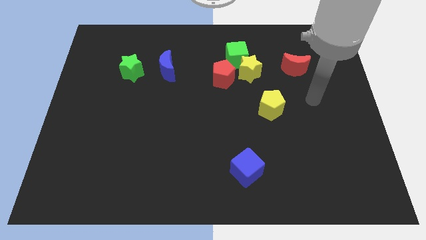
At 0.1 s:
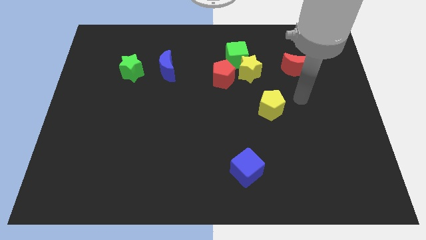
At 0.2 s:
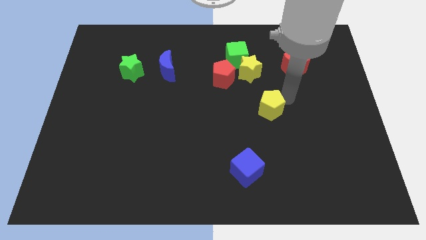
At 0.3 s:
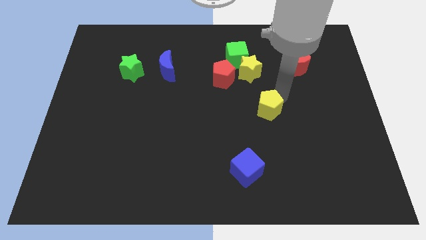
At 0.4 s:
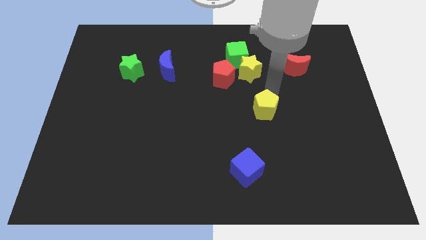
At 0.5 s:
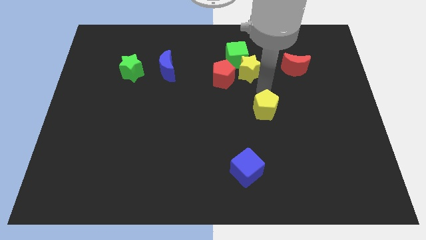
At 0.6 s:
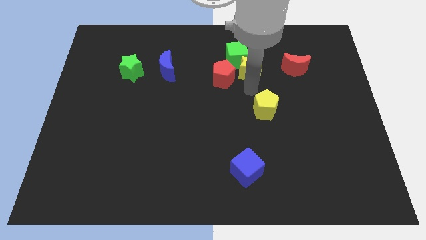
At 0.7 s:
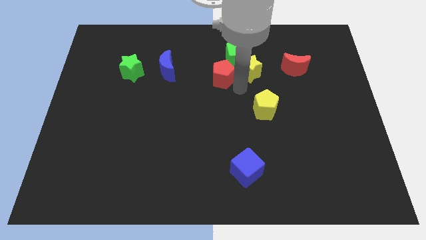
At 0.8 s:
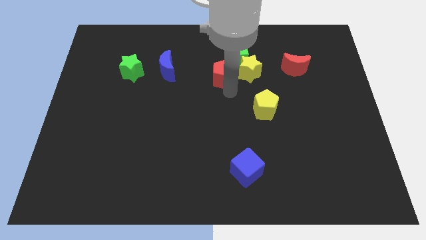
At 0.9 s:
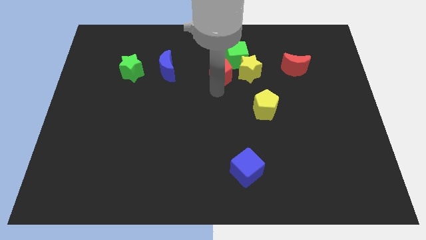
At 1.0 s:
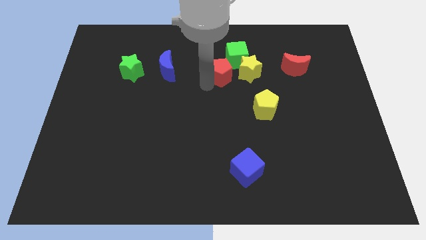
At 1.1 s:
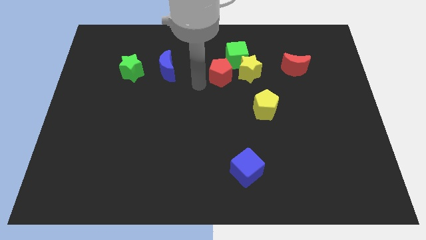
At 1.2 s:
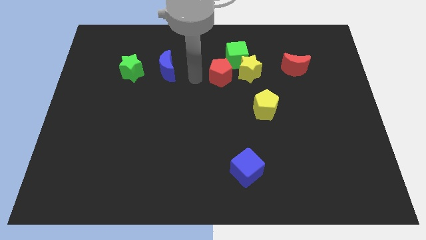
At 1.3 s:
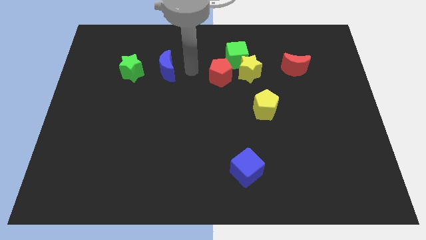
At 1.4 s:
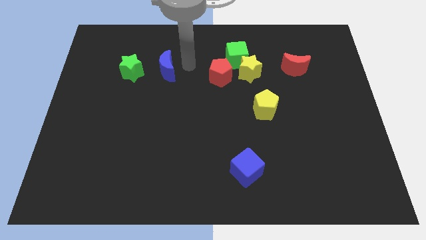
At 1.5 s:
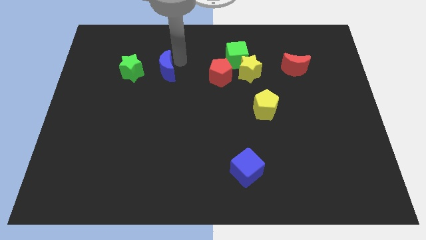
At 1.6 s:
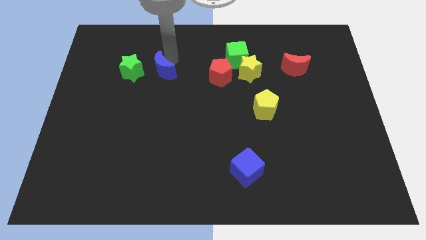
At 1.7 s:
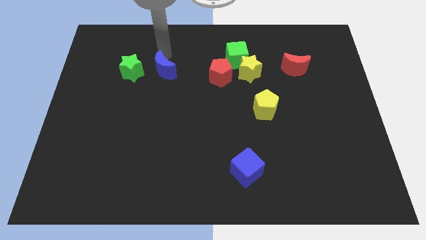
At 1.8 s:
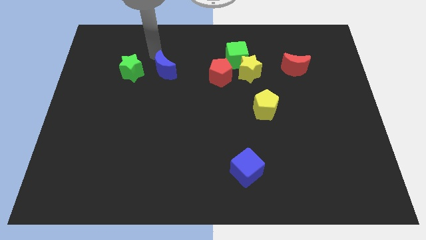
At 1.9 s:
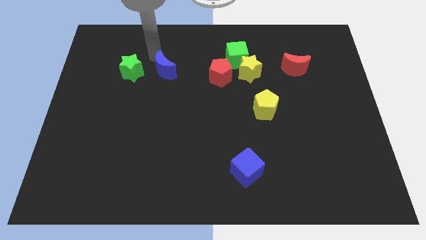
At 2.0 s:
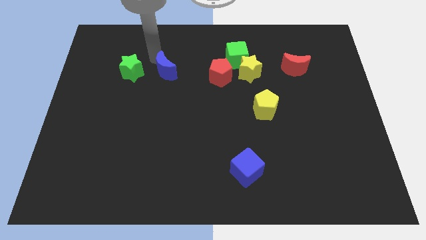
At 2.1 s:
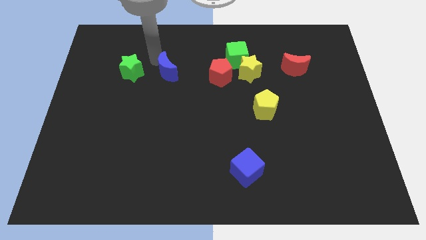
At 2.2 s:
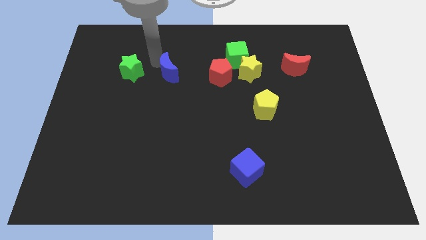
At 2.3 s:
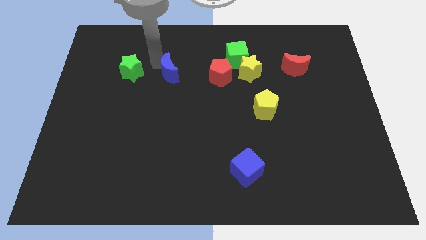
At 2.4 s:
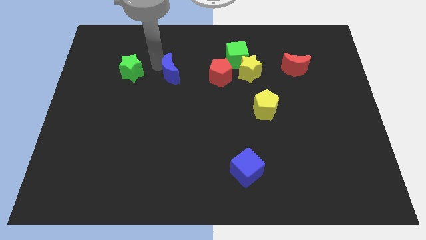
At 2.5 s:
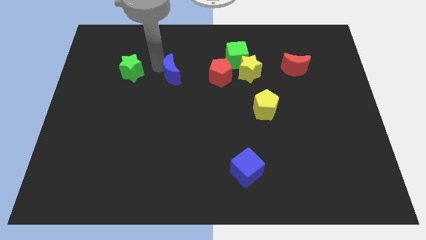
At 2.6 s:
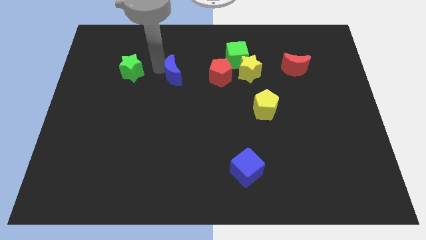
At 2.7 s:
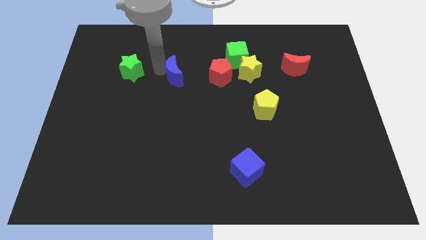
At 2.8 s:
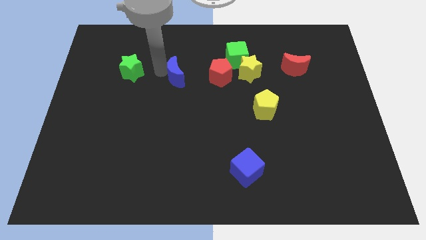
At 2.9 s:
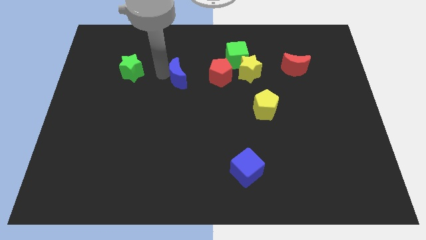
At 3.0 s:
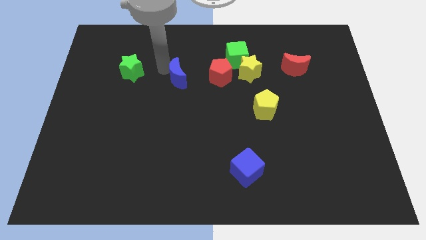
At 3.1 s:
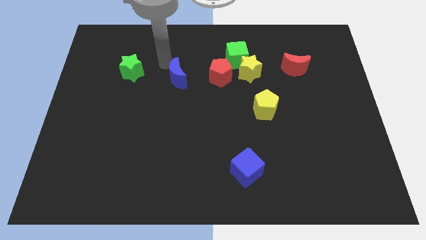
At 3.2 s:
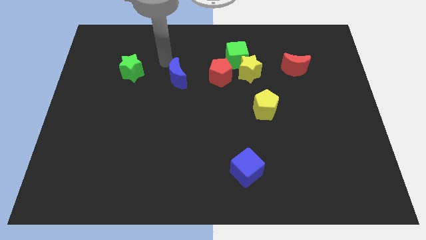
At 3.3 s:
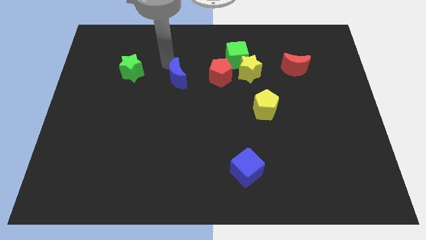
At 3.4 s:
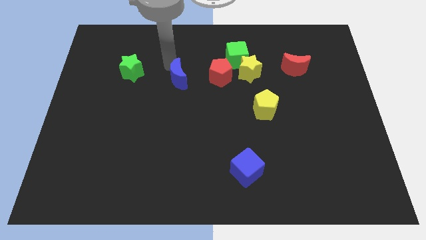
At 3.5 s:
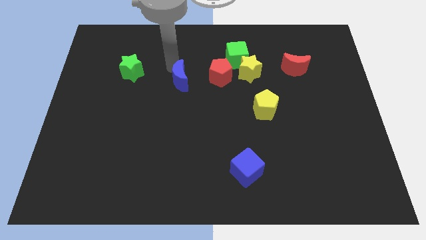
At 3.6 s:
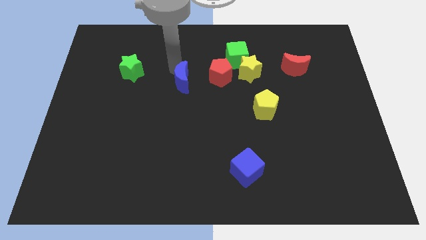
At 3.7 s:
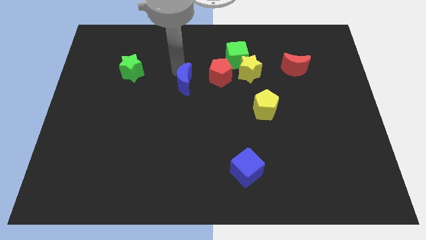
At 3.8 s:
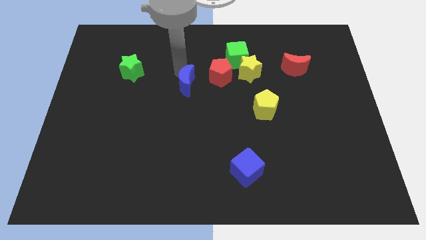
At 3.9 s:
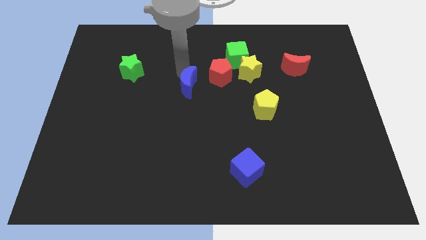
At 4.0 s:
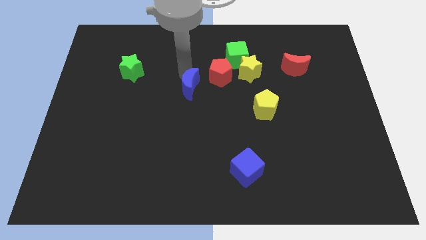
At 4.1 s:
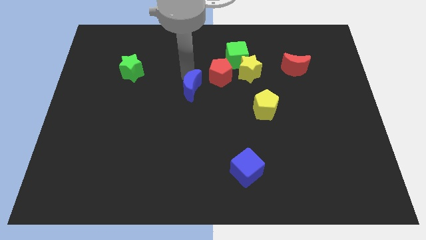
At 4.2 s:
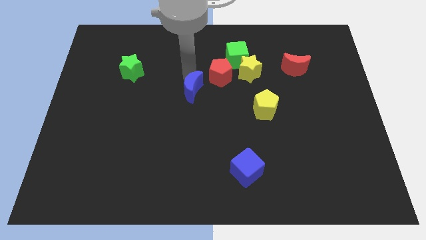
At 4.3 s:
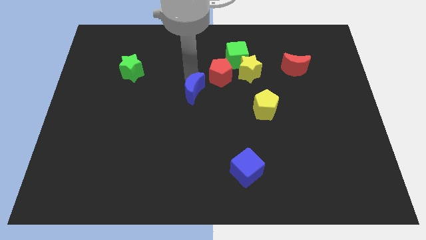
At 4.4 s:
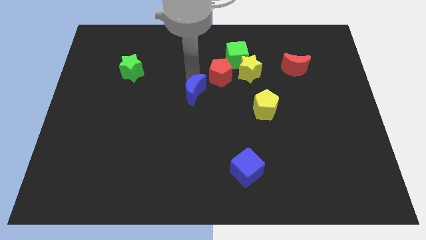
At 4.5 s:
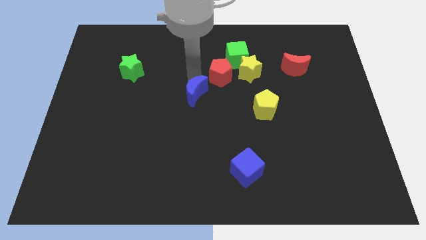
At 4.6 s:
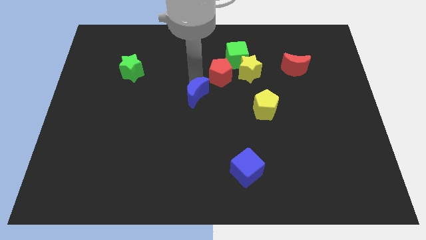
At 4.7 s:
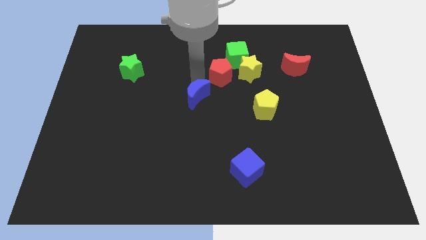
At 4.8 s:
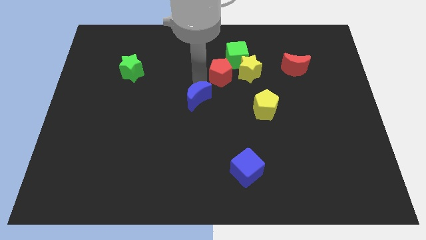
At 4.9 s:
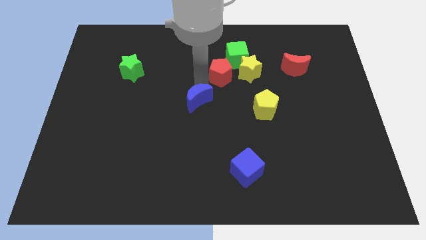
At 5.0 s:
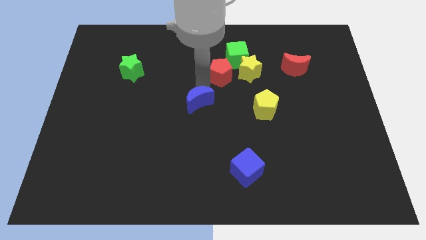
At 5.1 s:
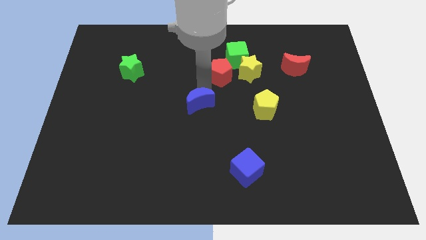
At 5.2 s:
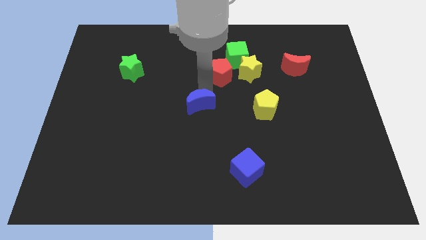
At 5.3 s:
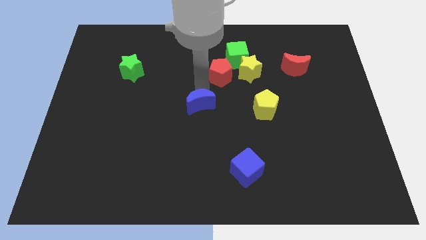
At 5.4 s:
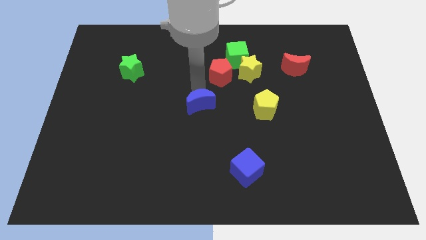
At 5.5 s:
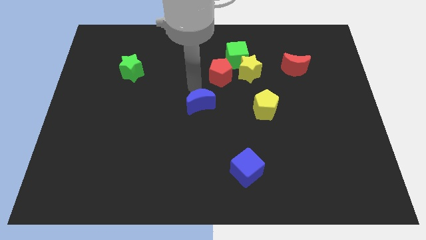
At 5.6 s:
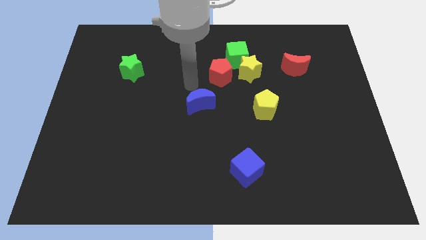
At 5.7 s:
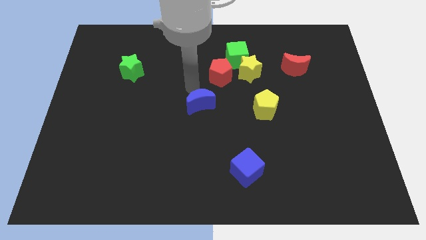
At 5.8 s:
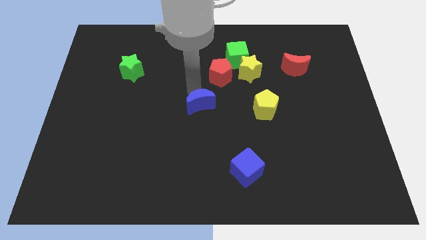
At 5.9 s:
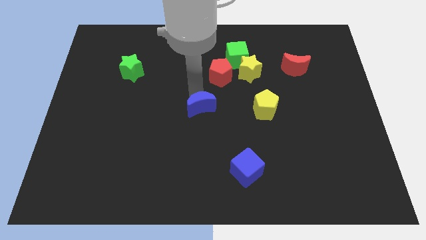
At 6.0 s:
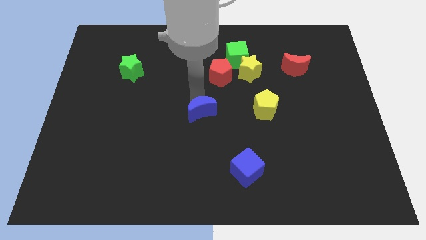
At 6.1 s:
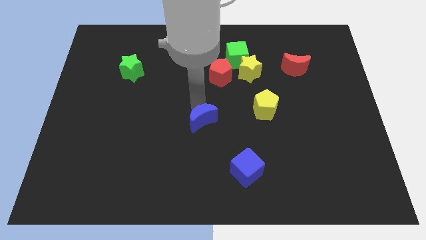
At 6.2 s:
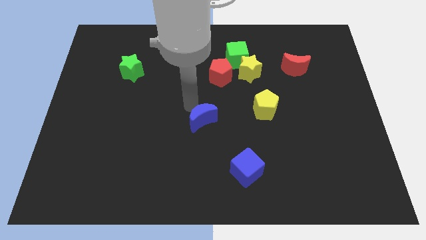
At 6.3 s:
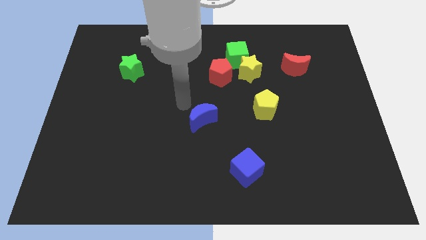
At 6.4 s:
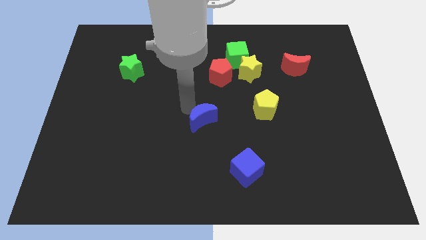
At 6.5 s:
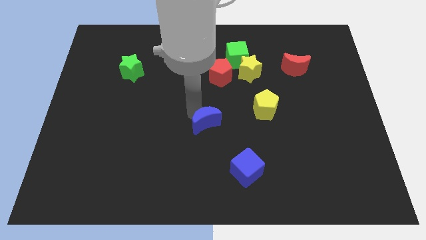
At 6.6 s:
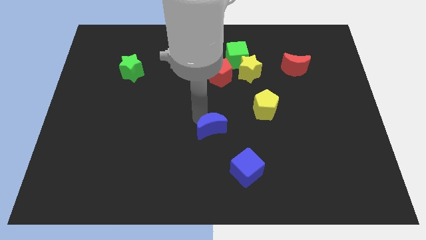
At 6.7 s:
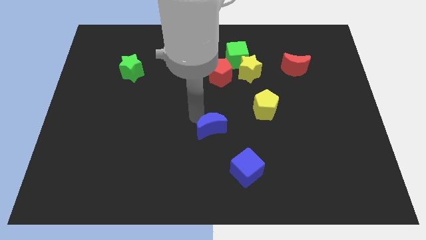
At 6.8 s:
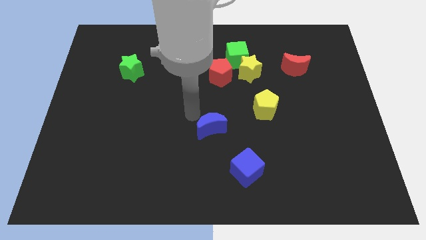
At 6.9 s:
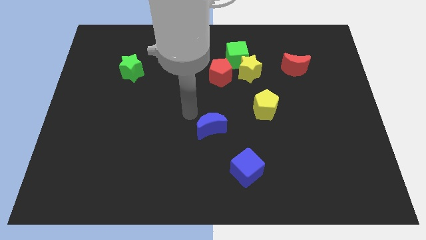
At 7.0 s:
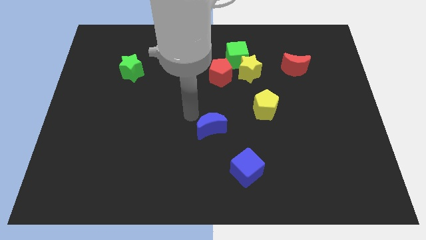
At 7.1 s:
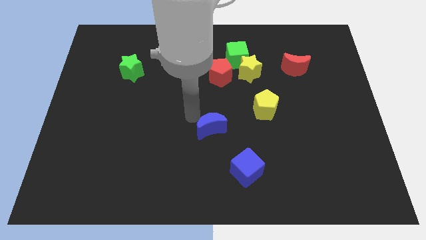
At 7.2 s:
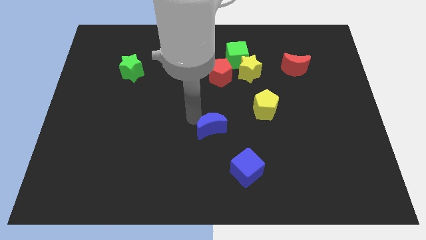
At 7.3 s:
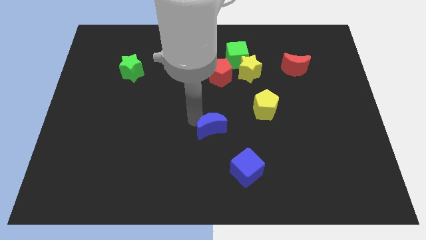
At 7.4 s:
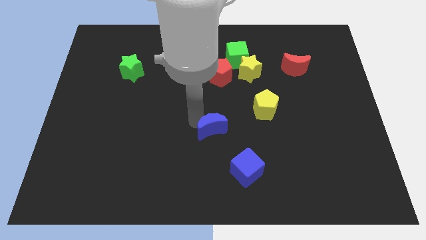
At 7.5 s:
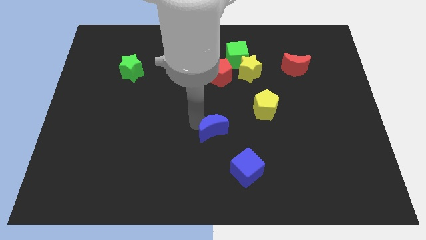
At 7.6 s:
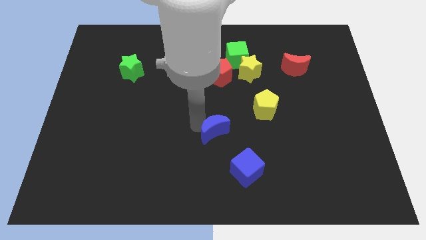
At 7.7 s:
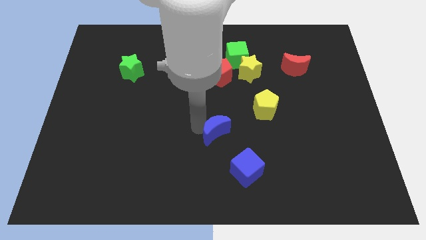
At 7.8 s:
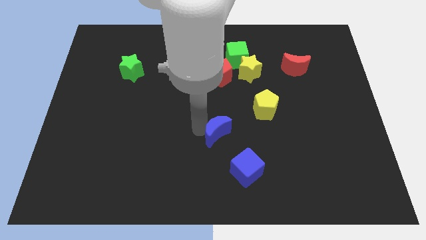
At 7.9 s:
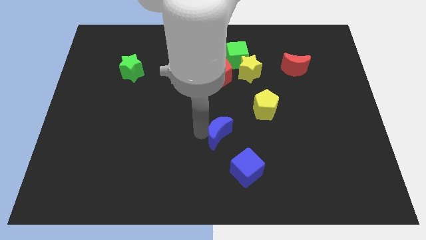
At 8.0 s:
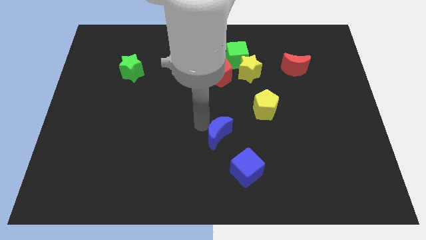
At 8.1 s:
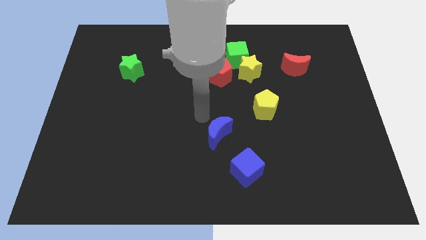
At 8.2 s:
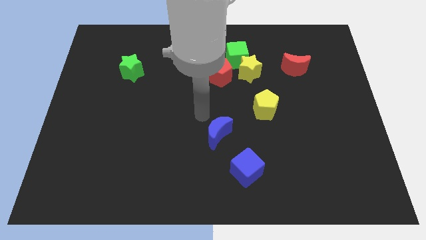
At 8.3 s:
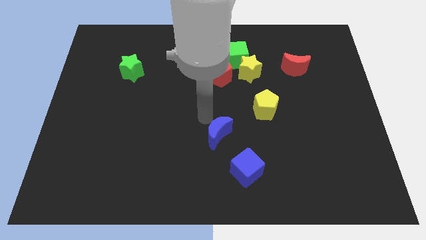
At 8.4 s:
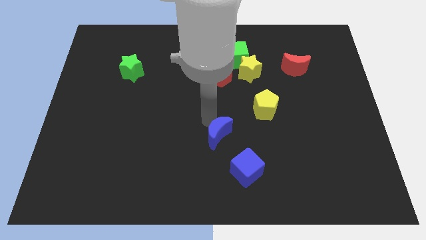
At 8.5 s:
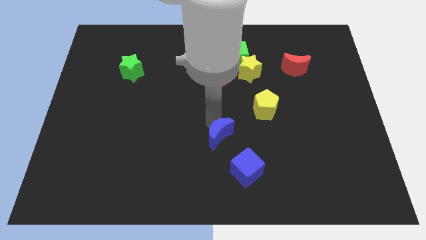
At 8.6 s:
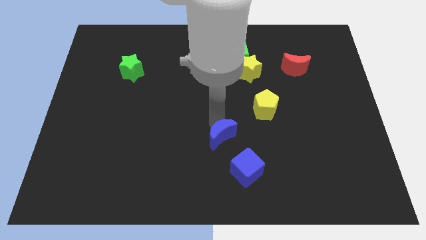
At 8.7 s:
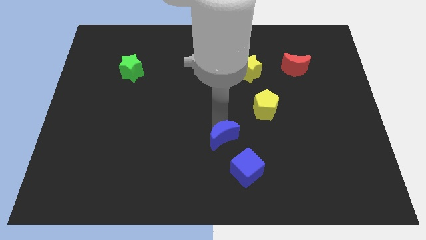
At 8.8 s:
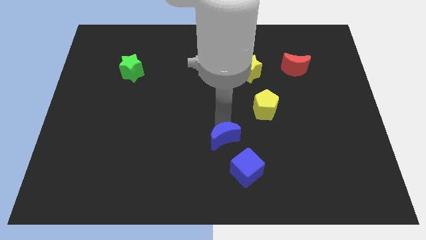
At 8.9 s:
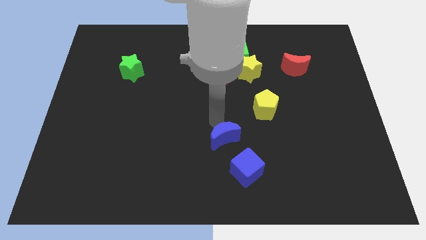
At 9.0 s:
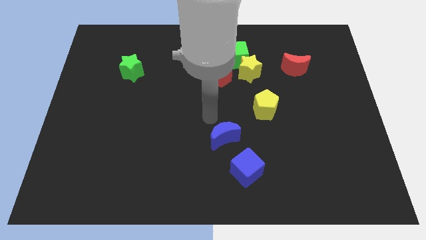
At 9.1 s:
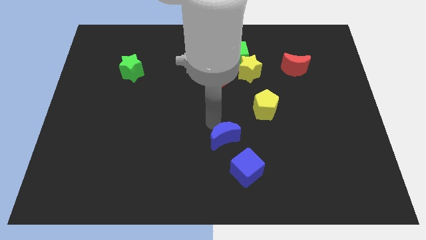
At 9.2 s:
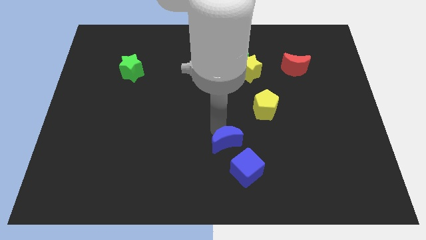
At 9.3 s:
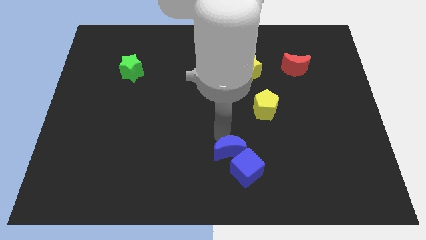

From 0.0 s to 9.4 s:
push the blue moon close to the blue cube
